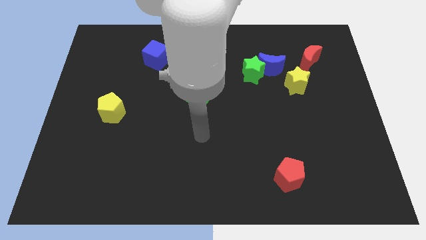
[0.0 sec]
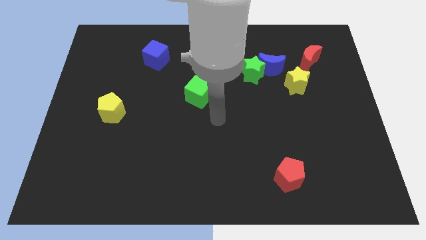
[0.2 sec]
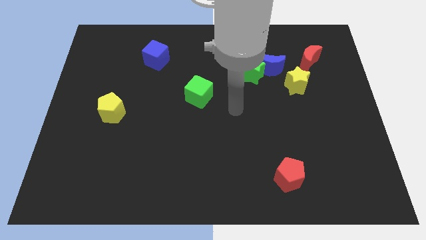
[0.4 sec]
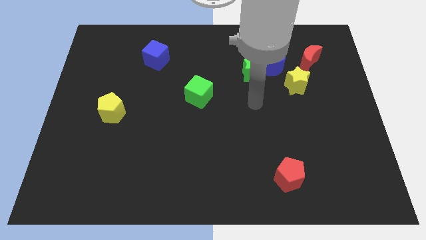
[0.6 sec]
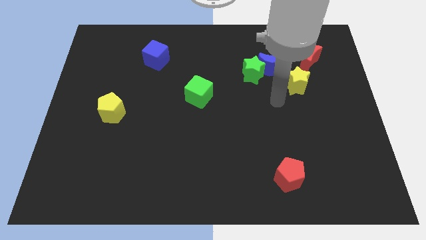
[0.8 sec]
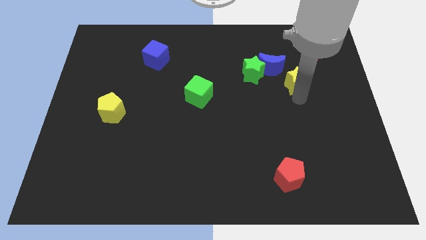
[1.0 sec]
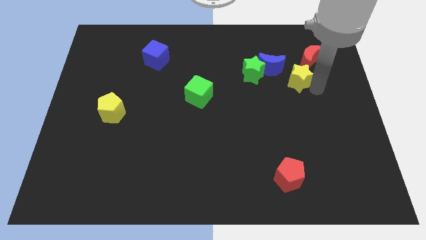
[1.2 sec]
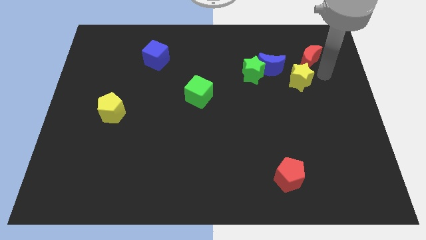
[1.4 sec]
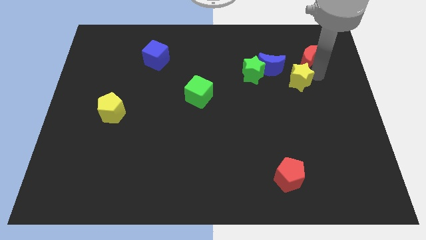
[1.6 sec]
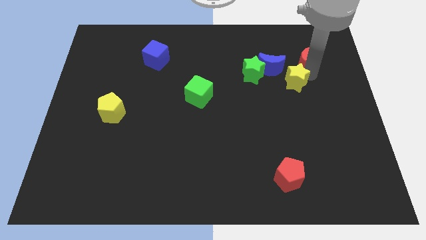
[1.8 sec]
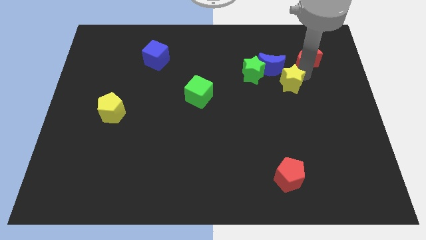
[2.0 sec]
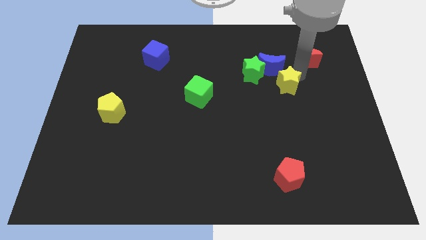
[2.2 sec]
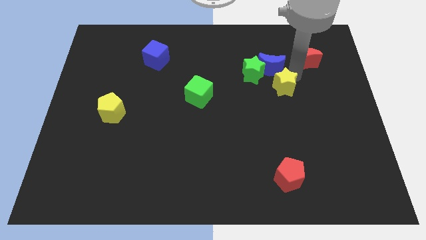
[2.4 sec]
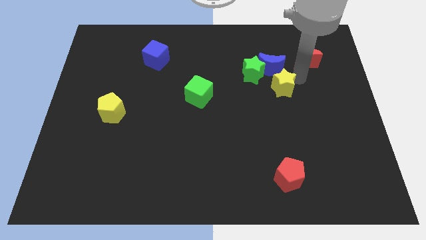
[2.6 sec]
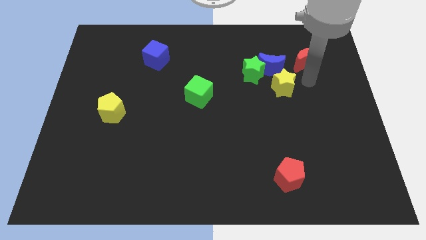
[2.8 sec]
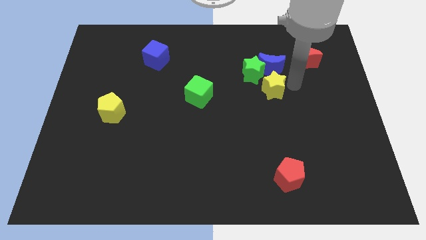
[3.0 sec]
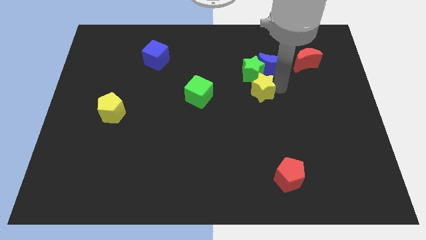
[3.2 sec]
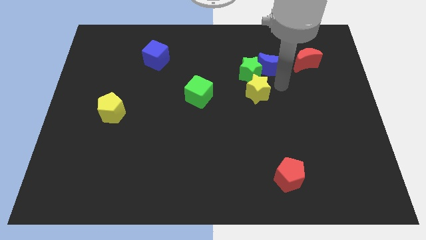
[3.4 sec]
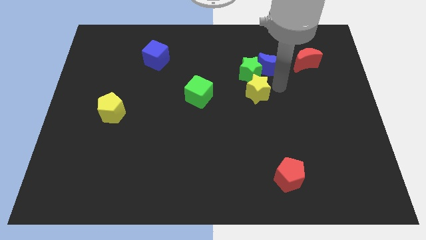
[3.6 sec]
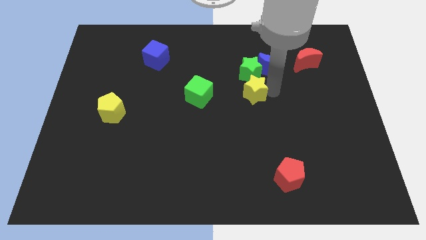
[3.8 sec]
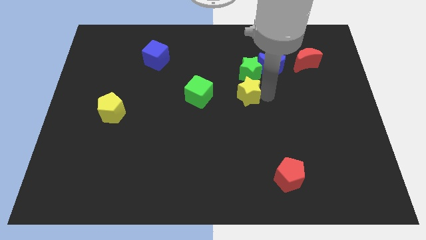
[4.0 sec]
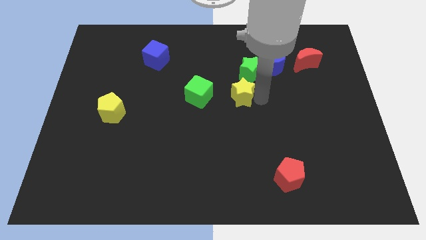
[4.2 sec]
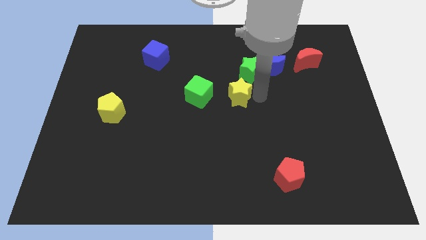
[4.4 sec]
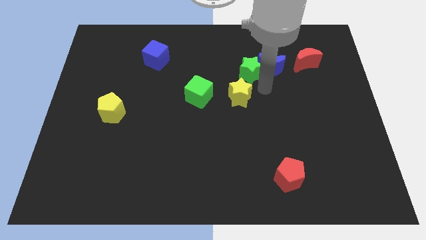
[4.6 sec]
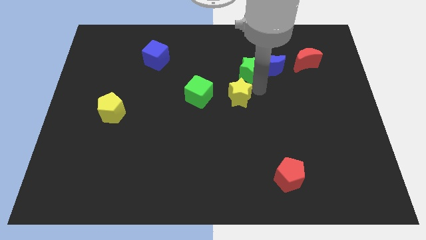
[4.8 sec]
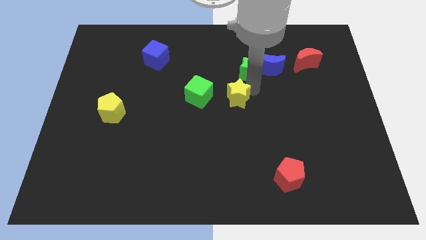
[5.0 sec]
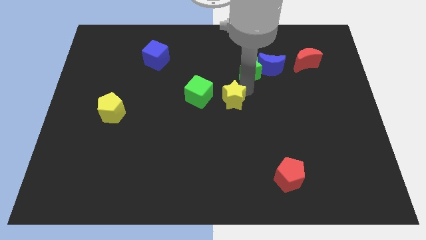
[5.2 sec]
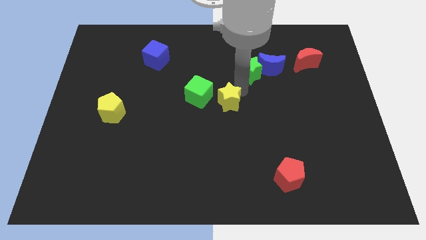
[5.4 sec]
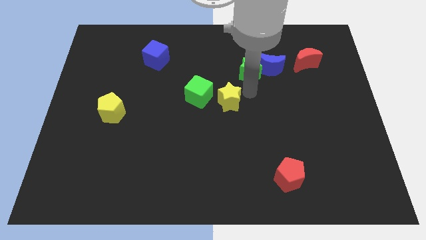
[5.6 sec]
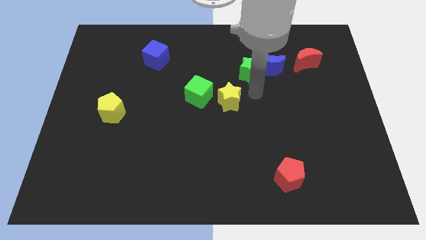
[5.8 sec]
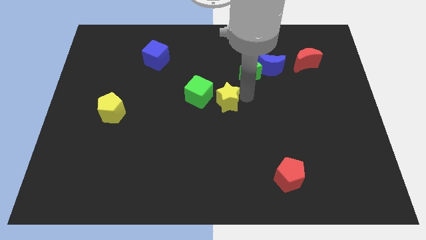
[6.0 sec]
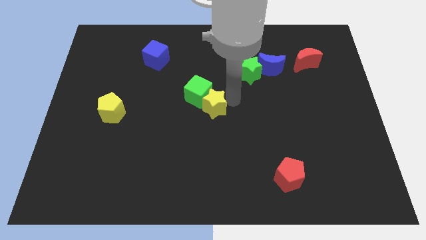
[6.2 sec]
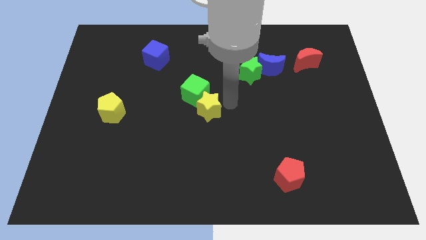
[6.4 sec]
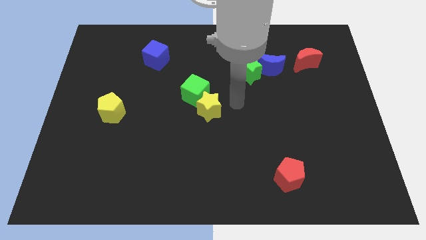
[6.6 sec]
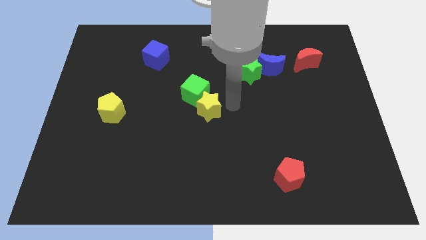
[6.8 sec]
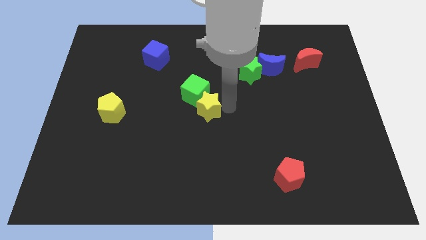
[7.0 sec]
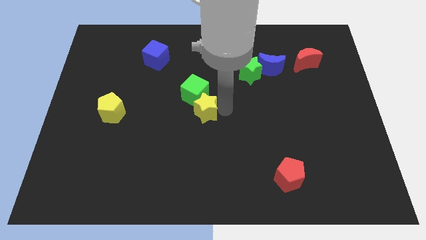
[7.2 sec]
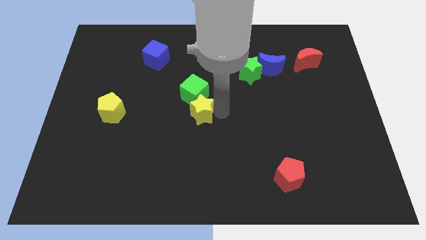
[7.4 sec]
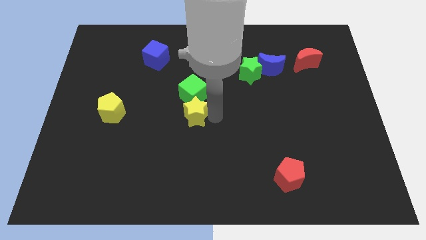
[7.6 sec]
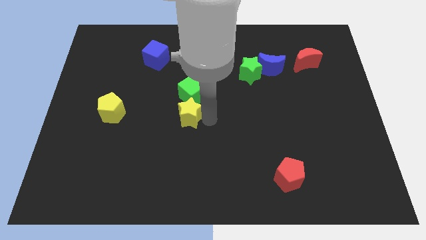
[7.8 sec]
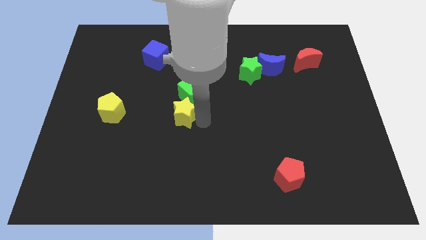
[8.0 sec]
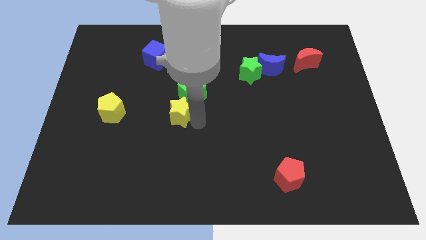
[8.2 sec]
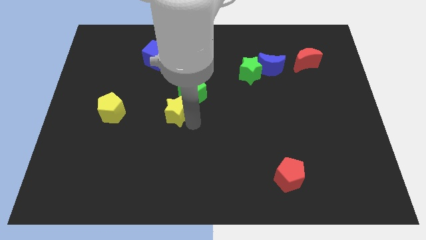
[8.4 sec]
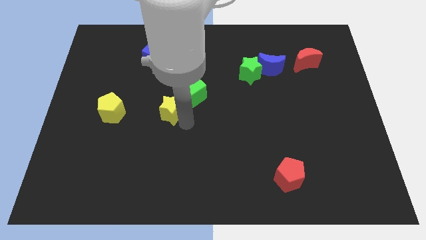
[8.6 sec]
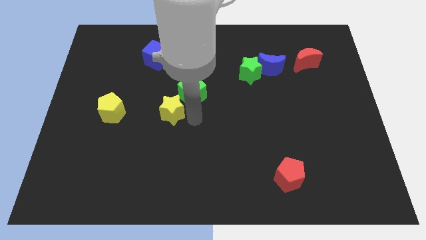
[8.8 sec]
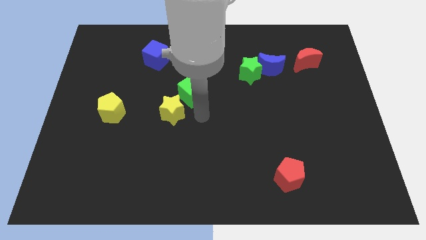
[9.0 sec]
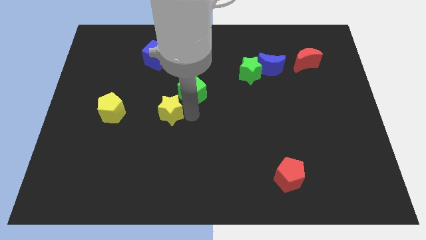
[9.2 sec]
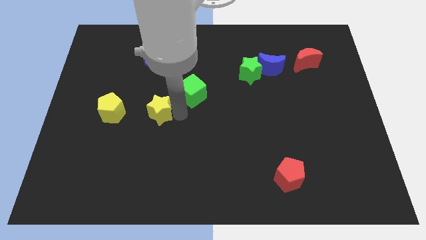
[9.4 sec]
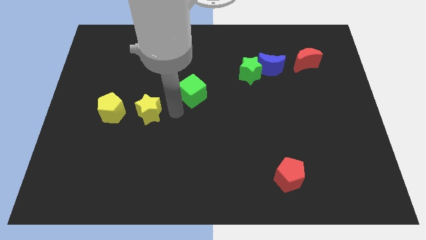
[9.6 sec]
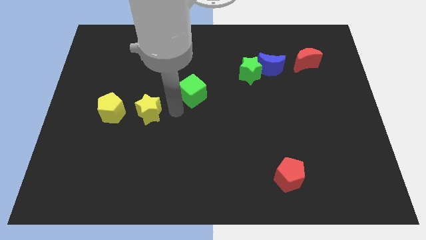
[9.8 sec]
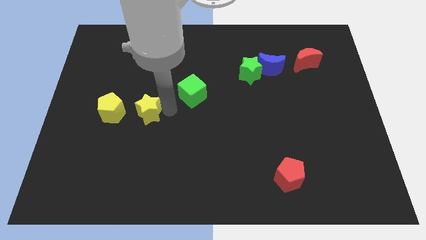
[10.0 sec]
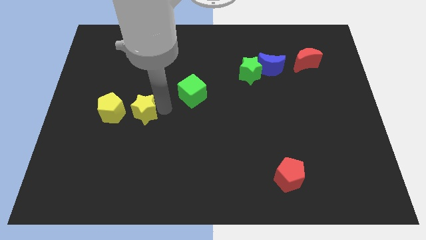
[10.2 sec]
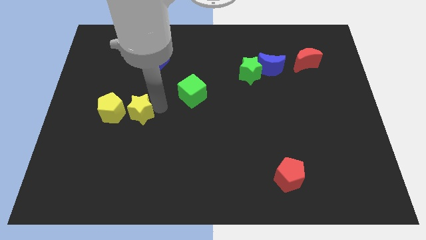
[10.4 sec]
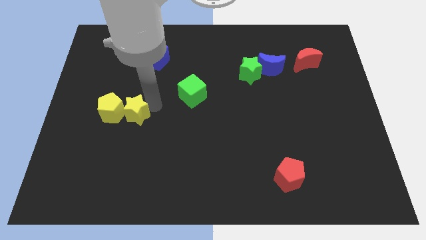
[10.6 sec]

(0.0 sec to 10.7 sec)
push the yellow star towards the yellow pentagon

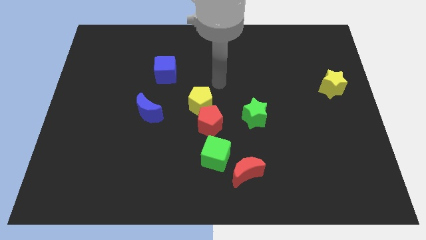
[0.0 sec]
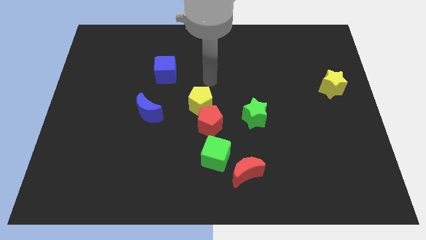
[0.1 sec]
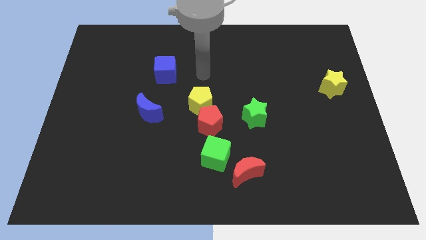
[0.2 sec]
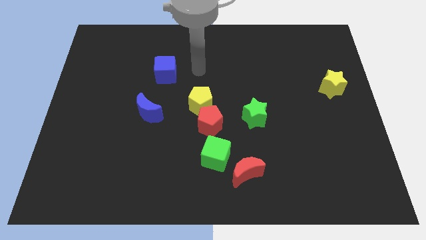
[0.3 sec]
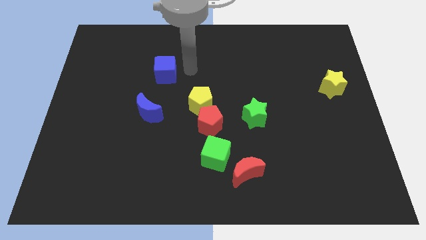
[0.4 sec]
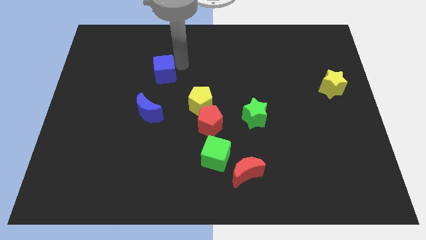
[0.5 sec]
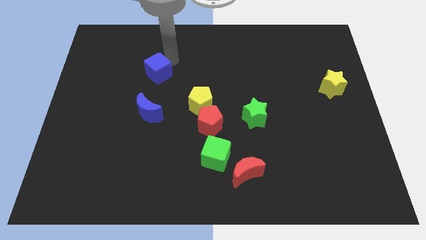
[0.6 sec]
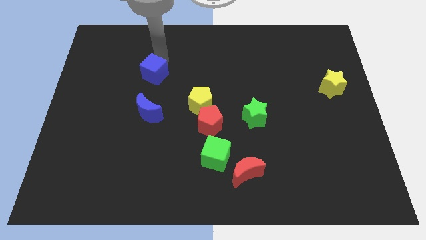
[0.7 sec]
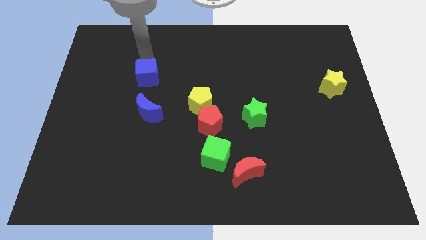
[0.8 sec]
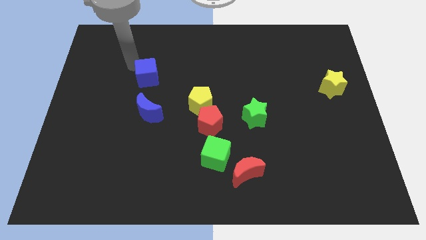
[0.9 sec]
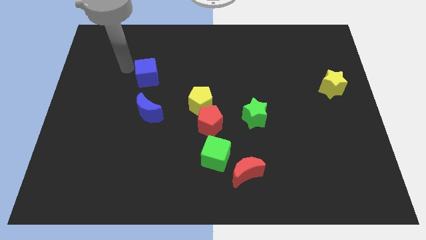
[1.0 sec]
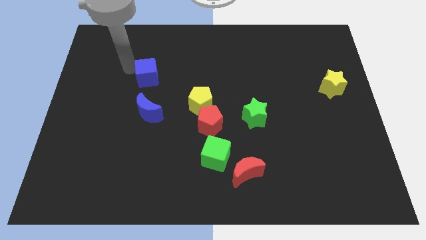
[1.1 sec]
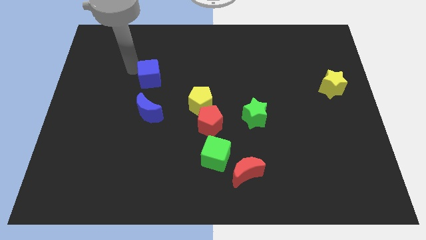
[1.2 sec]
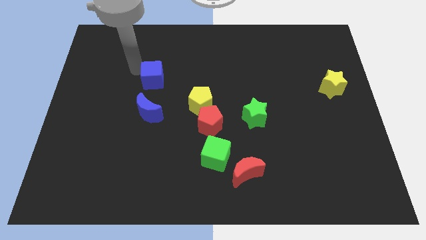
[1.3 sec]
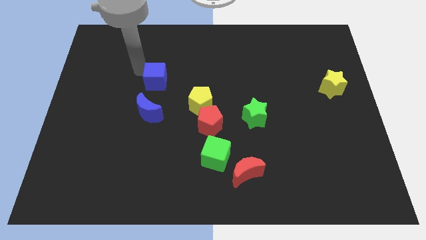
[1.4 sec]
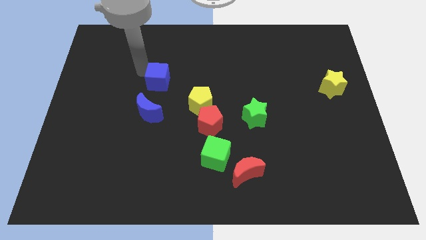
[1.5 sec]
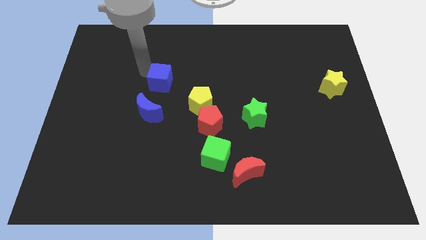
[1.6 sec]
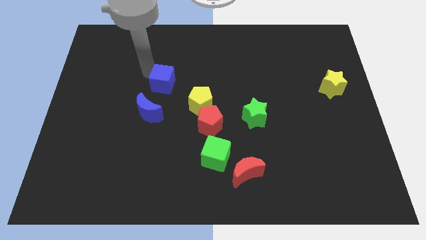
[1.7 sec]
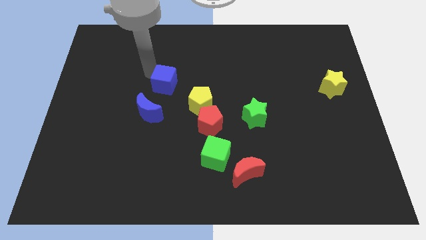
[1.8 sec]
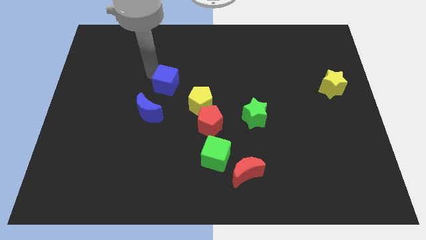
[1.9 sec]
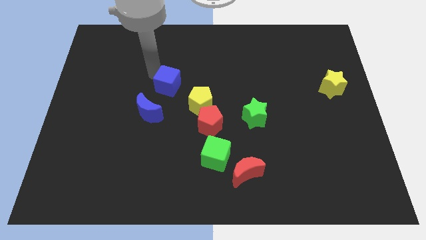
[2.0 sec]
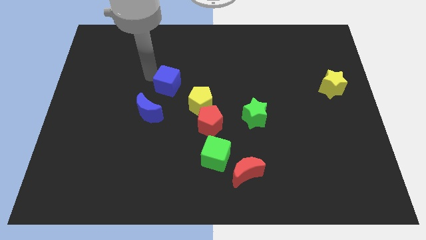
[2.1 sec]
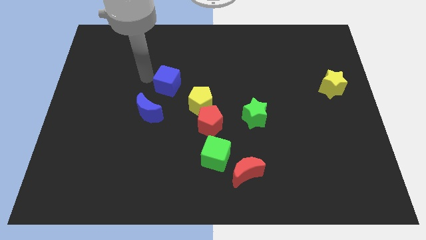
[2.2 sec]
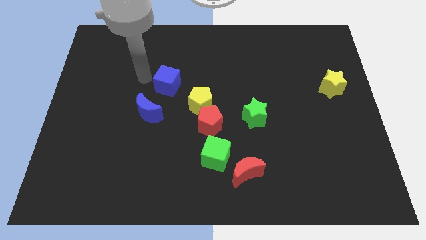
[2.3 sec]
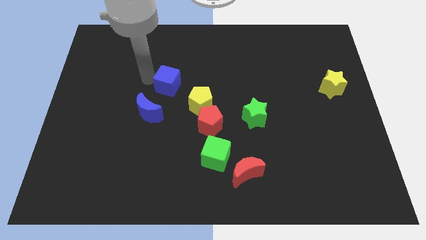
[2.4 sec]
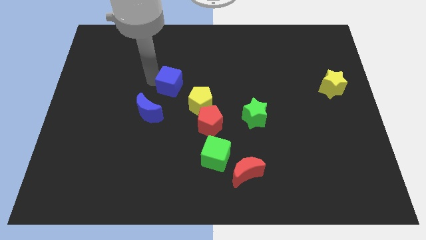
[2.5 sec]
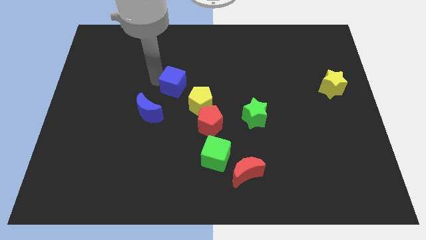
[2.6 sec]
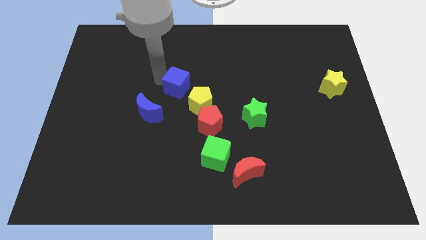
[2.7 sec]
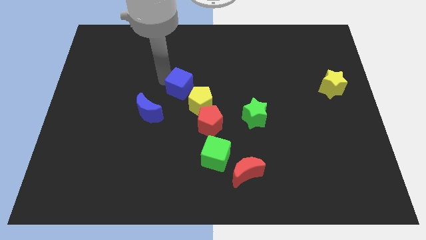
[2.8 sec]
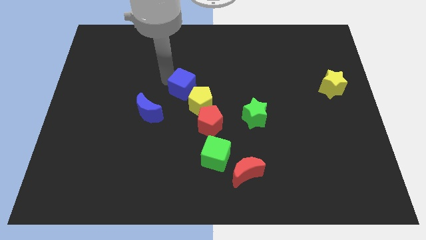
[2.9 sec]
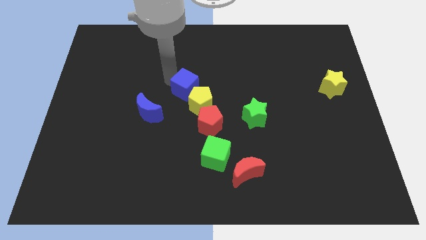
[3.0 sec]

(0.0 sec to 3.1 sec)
move the blue cube next to the yellow pentagon
